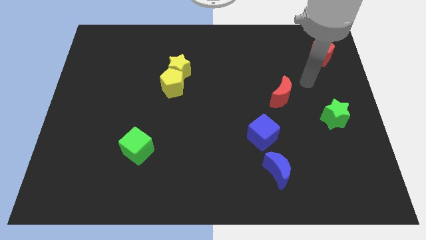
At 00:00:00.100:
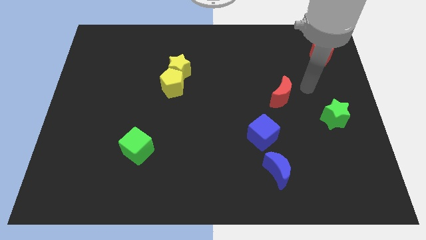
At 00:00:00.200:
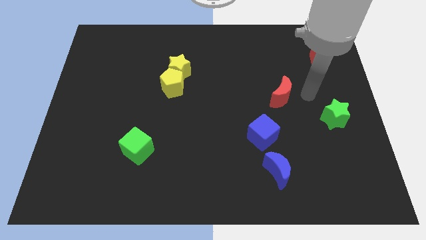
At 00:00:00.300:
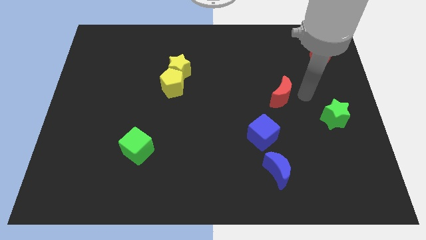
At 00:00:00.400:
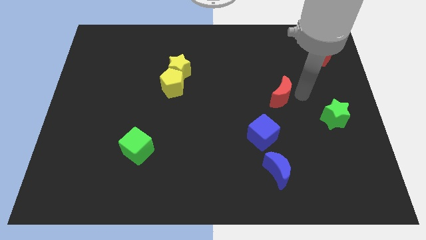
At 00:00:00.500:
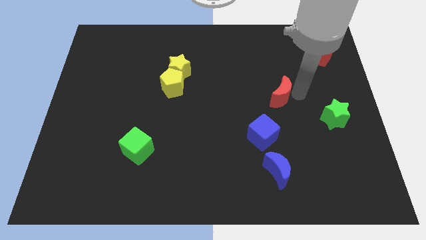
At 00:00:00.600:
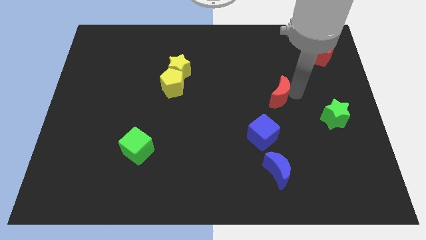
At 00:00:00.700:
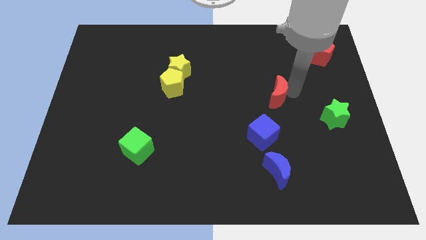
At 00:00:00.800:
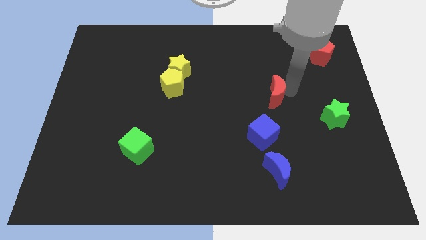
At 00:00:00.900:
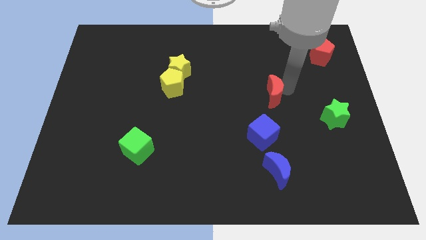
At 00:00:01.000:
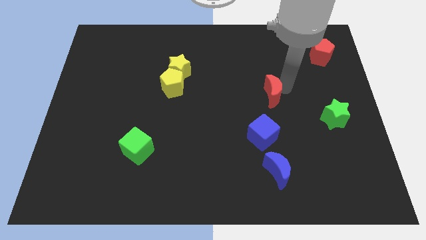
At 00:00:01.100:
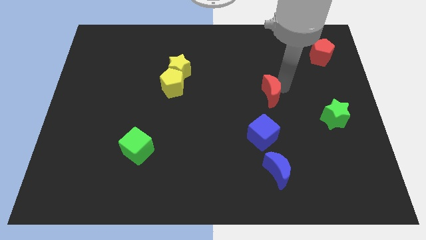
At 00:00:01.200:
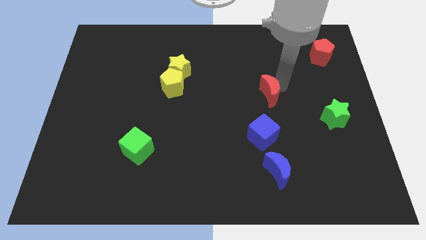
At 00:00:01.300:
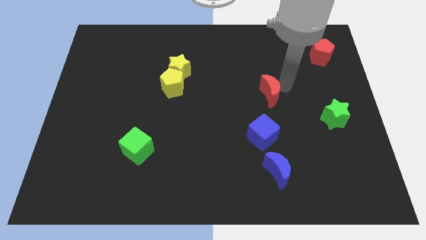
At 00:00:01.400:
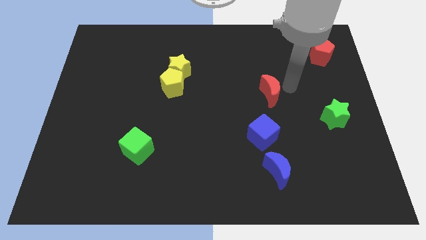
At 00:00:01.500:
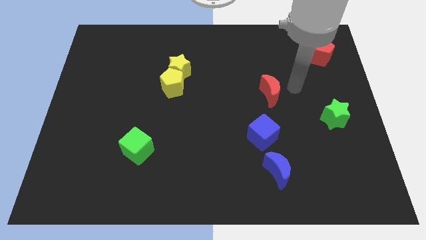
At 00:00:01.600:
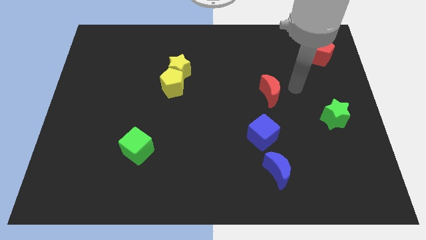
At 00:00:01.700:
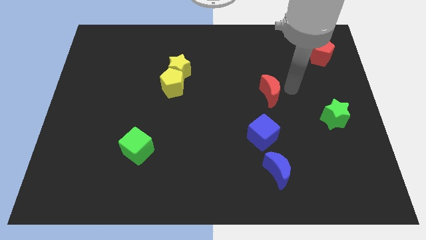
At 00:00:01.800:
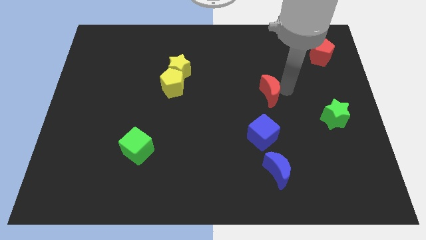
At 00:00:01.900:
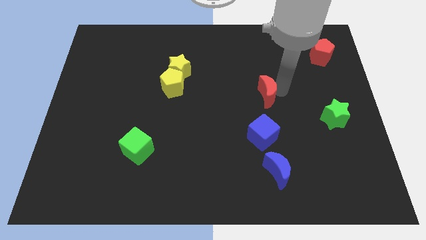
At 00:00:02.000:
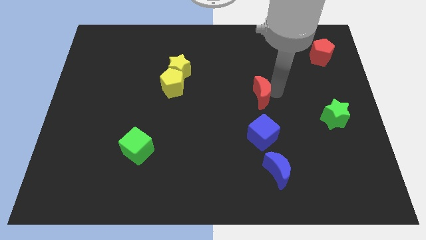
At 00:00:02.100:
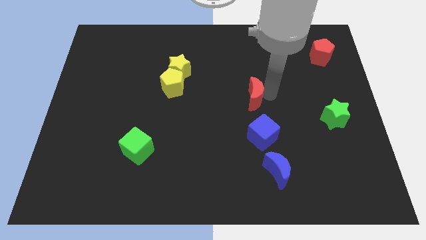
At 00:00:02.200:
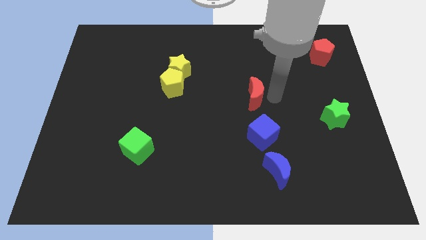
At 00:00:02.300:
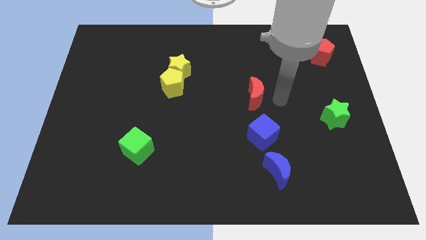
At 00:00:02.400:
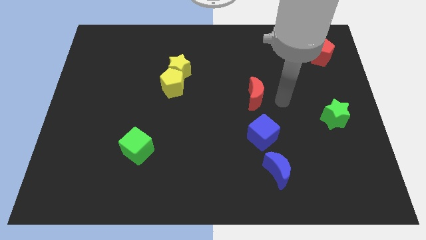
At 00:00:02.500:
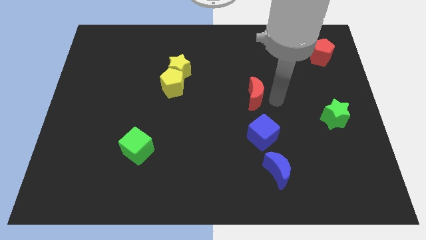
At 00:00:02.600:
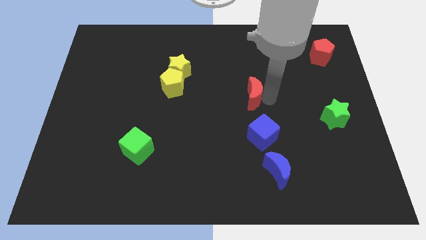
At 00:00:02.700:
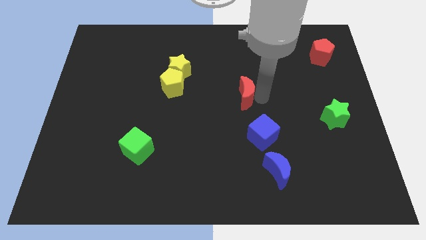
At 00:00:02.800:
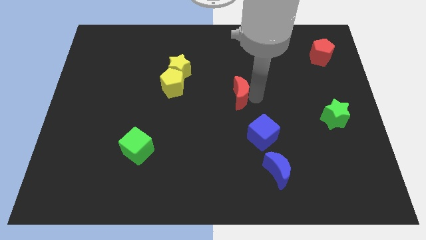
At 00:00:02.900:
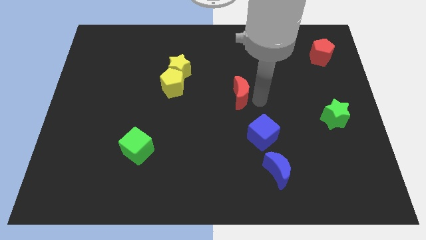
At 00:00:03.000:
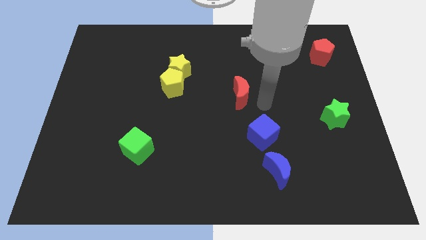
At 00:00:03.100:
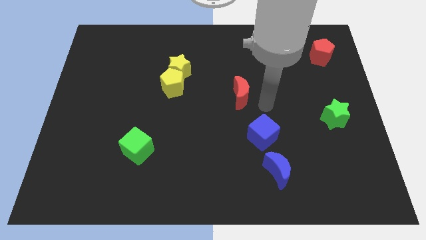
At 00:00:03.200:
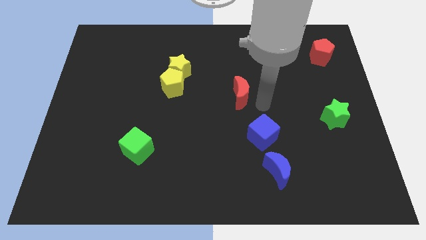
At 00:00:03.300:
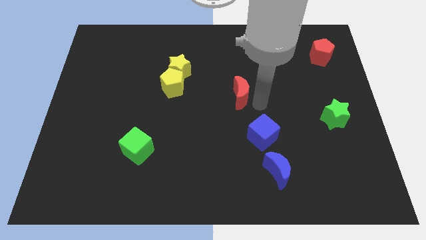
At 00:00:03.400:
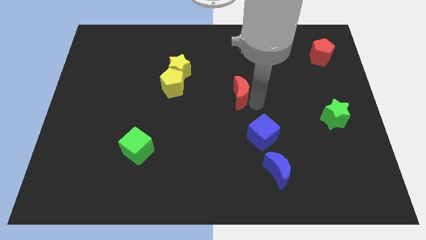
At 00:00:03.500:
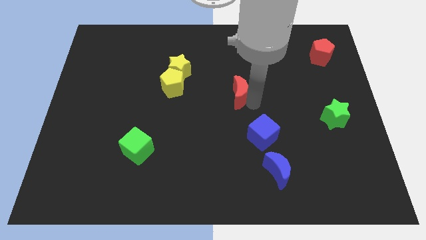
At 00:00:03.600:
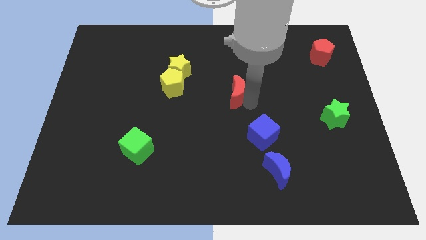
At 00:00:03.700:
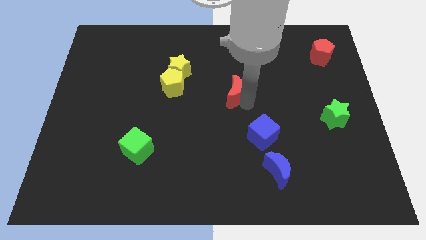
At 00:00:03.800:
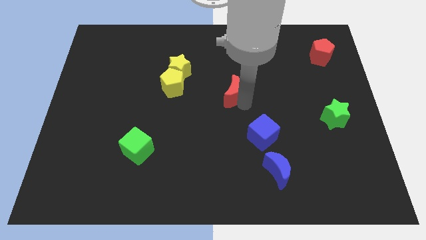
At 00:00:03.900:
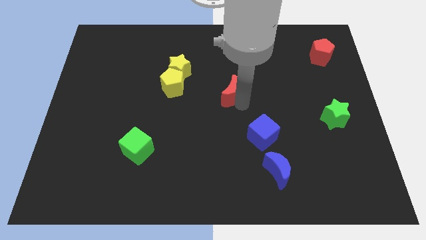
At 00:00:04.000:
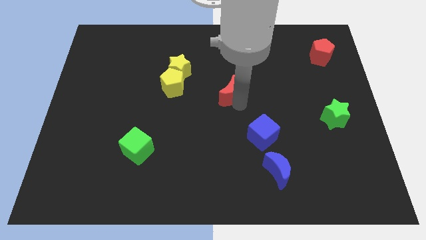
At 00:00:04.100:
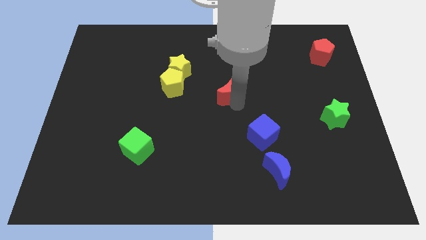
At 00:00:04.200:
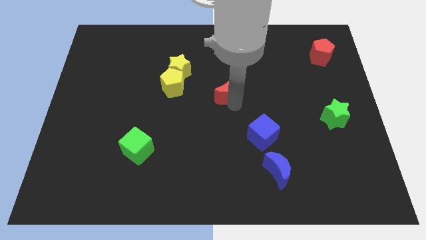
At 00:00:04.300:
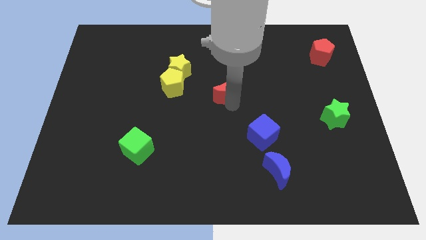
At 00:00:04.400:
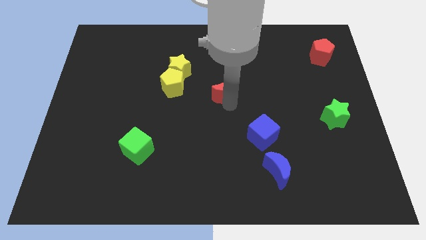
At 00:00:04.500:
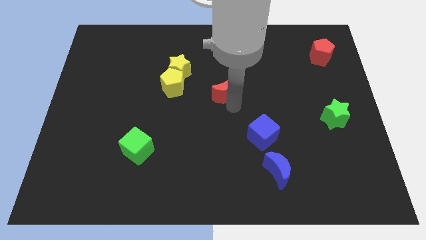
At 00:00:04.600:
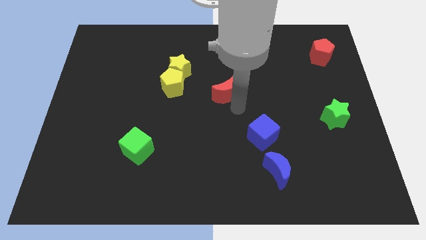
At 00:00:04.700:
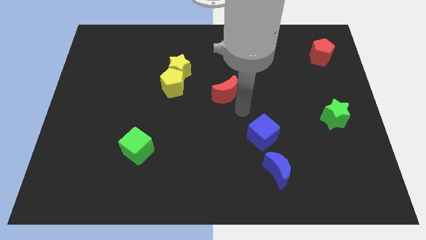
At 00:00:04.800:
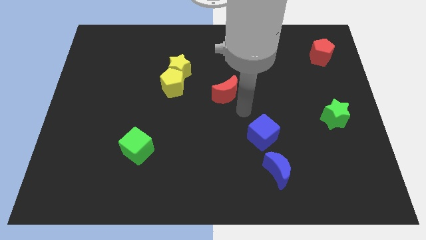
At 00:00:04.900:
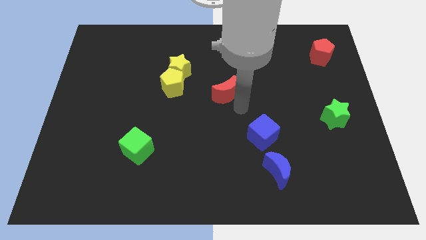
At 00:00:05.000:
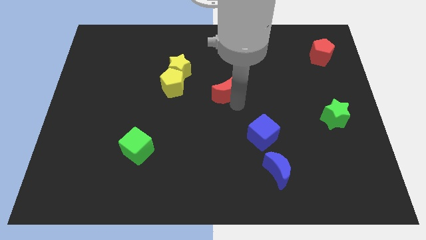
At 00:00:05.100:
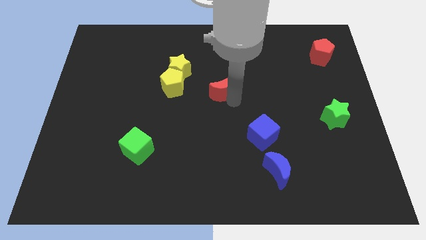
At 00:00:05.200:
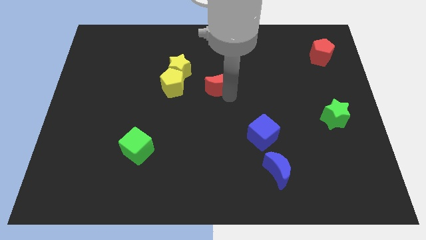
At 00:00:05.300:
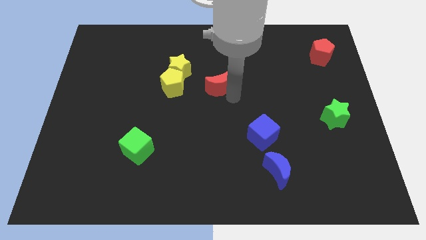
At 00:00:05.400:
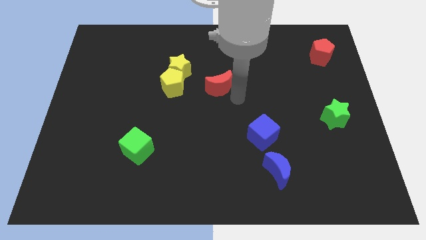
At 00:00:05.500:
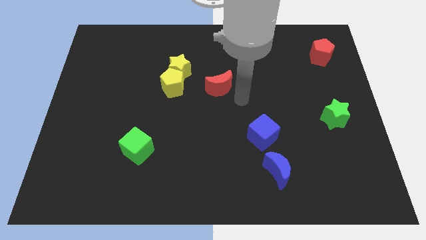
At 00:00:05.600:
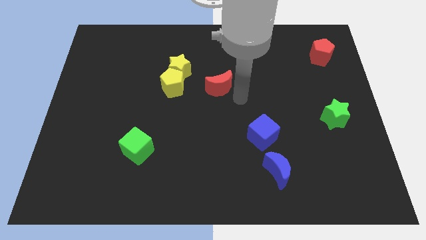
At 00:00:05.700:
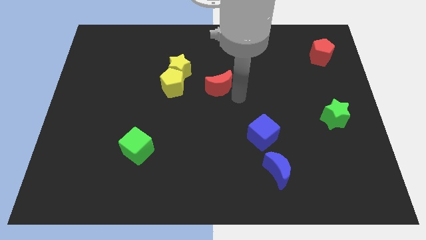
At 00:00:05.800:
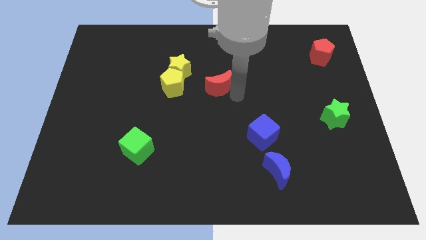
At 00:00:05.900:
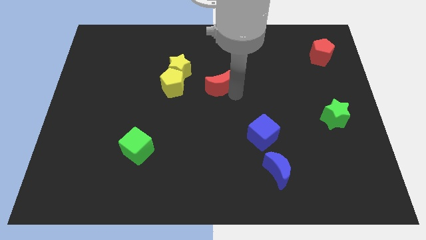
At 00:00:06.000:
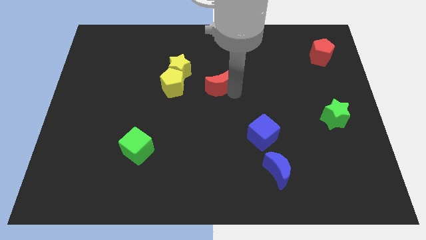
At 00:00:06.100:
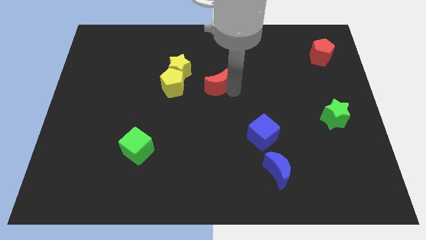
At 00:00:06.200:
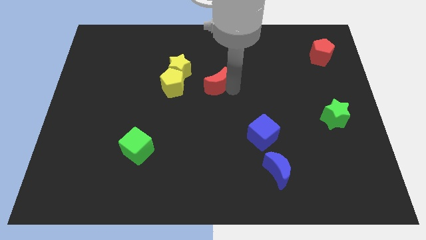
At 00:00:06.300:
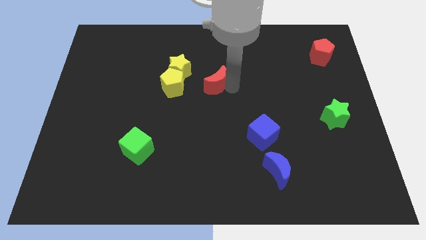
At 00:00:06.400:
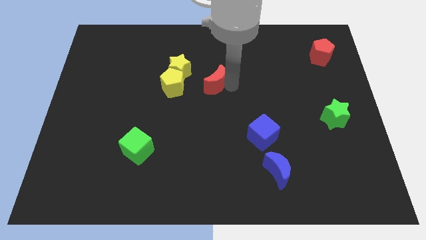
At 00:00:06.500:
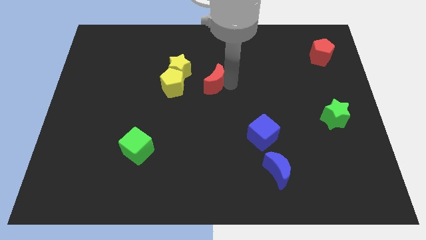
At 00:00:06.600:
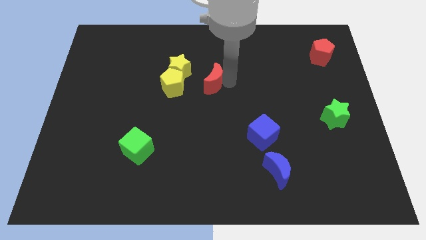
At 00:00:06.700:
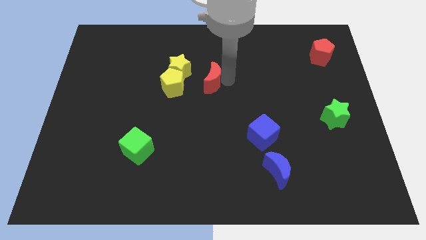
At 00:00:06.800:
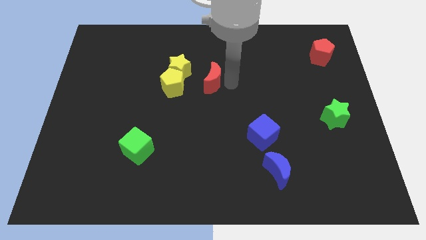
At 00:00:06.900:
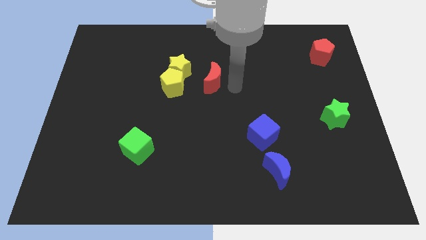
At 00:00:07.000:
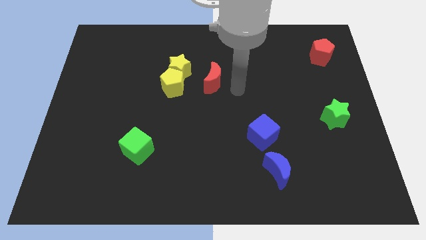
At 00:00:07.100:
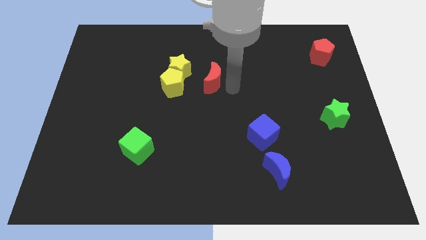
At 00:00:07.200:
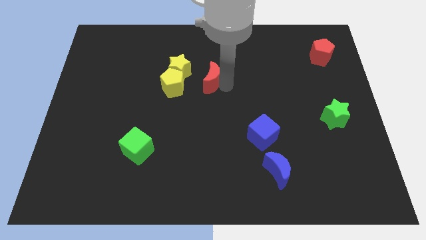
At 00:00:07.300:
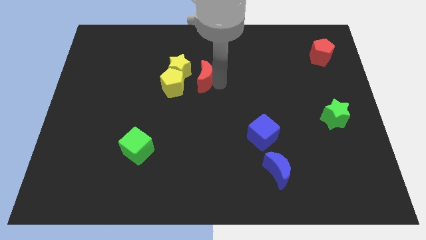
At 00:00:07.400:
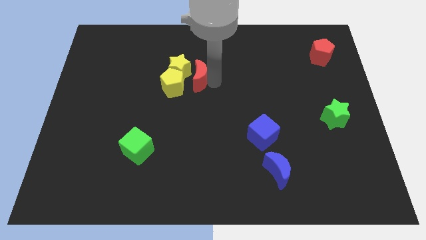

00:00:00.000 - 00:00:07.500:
slide the red moon to the yellow star
